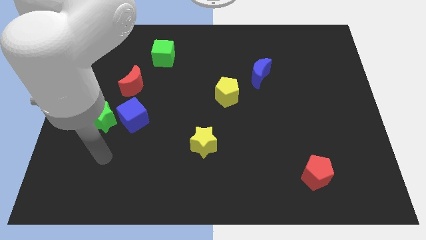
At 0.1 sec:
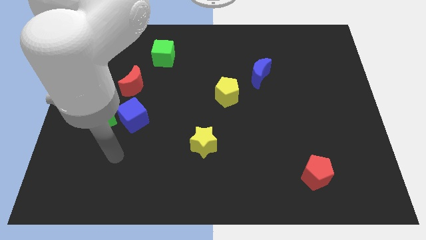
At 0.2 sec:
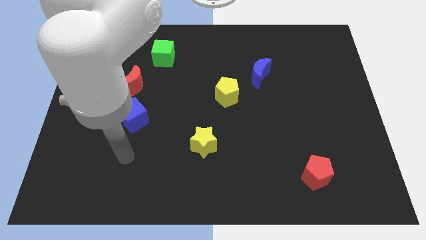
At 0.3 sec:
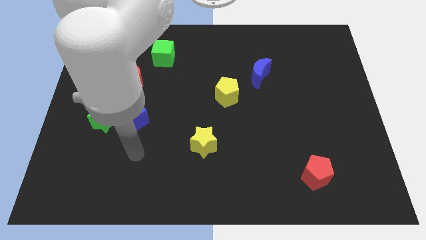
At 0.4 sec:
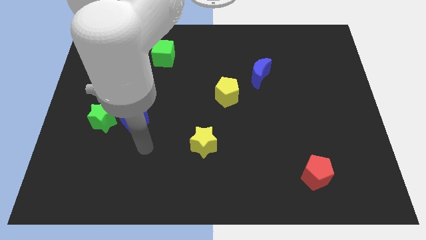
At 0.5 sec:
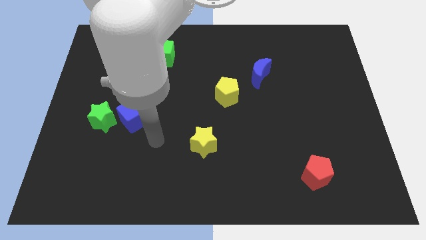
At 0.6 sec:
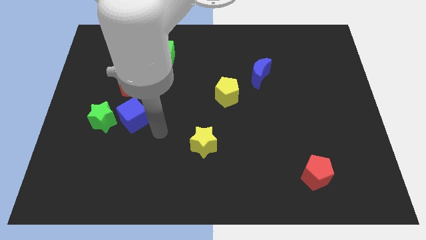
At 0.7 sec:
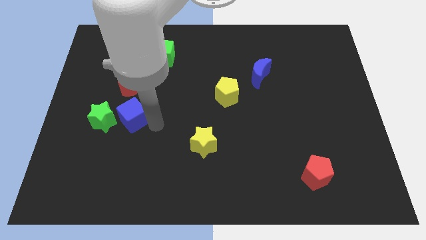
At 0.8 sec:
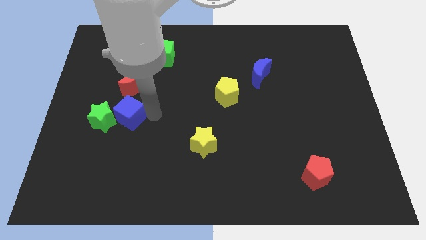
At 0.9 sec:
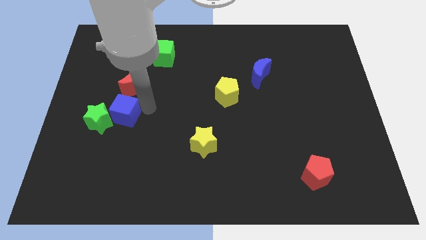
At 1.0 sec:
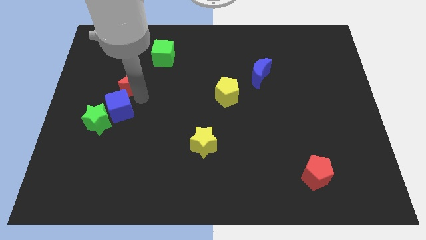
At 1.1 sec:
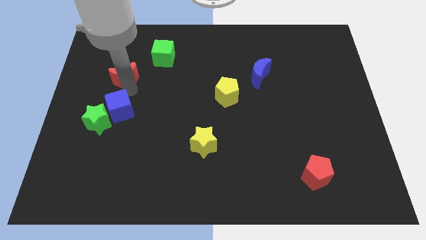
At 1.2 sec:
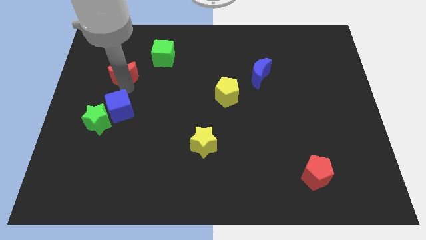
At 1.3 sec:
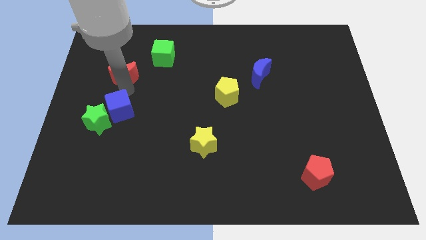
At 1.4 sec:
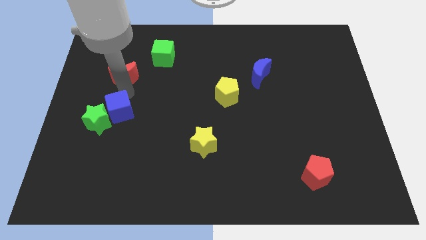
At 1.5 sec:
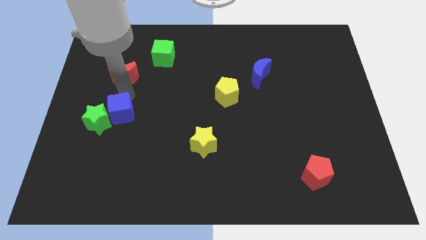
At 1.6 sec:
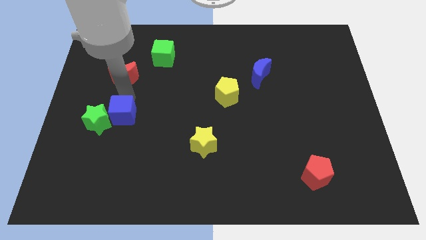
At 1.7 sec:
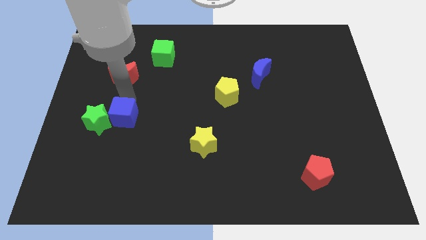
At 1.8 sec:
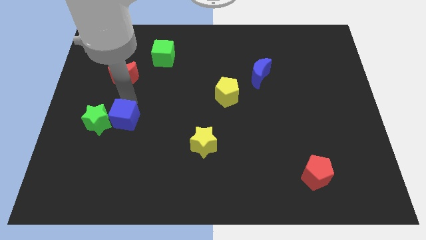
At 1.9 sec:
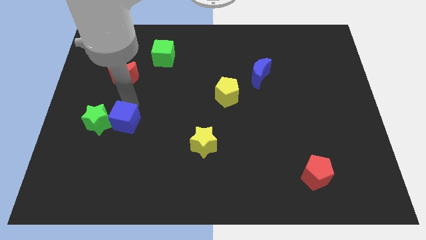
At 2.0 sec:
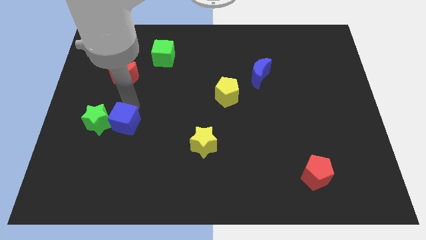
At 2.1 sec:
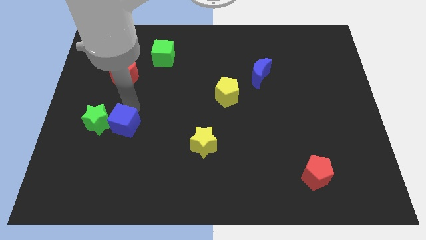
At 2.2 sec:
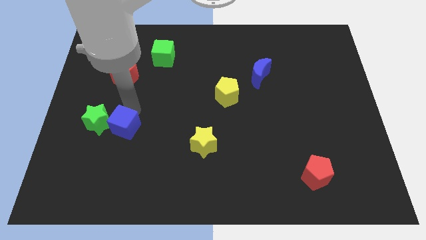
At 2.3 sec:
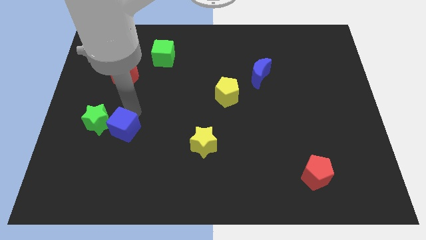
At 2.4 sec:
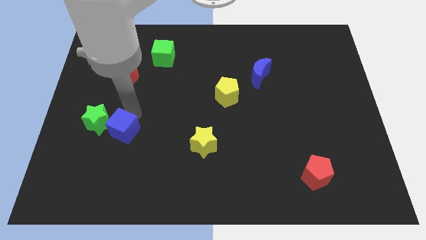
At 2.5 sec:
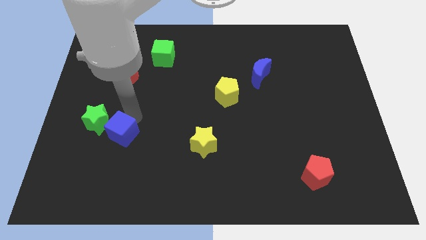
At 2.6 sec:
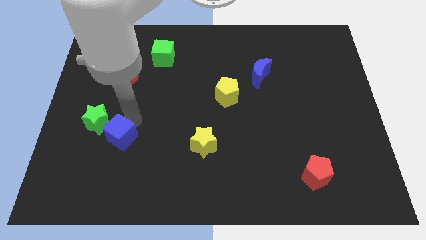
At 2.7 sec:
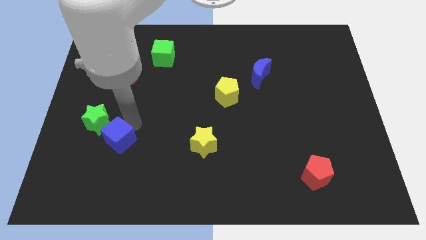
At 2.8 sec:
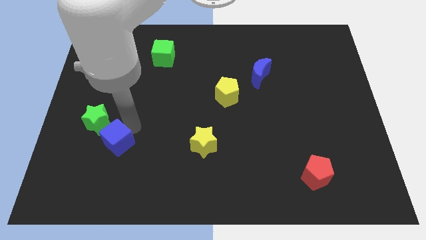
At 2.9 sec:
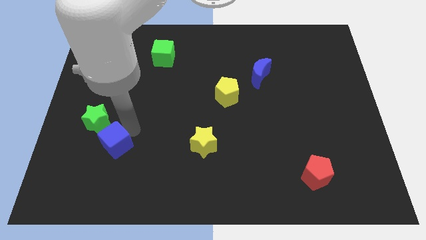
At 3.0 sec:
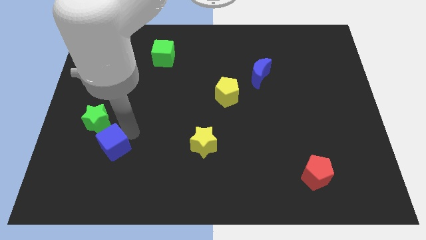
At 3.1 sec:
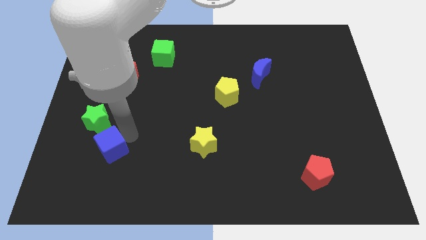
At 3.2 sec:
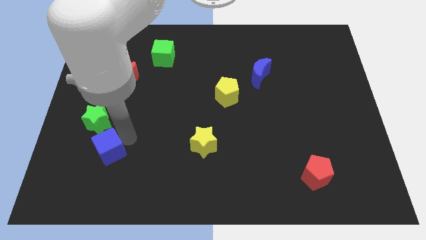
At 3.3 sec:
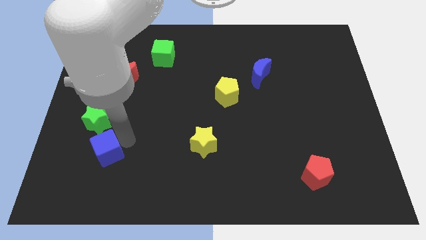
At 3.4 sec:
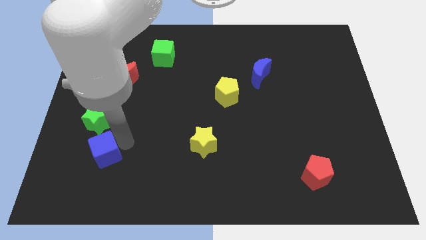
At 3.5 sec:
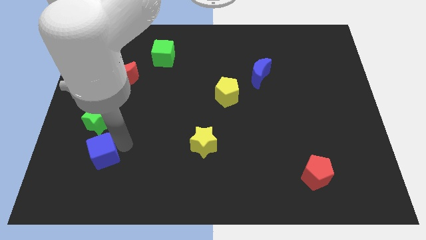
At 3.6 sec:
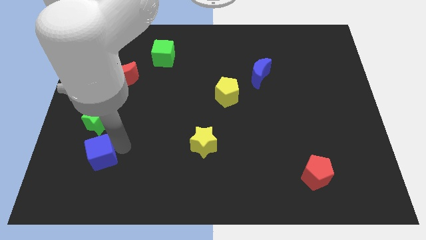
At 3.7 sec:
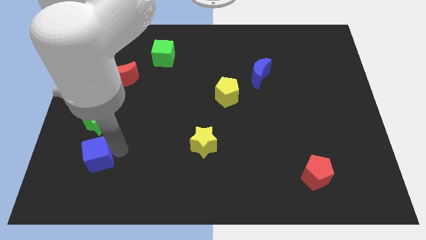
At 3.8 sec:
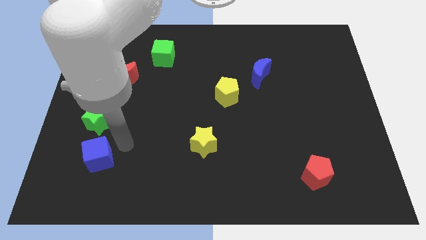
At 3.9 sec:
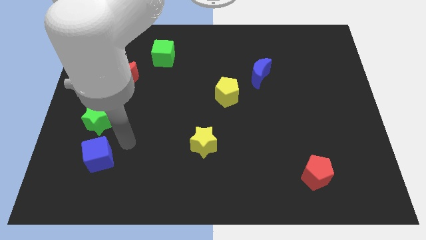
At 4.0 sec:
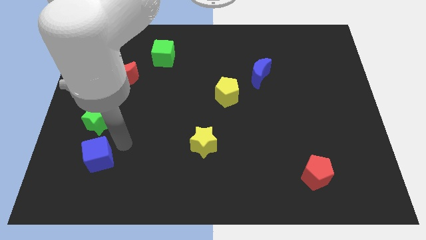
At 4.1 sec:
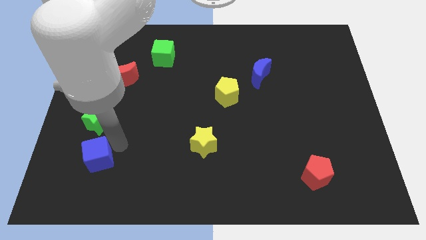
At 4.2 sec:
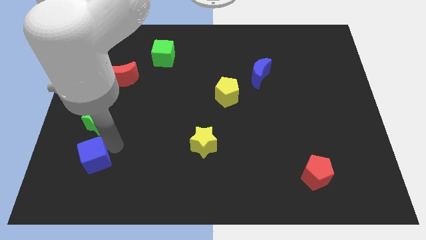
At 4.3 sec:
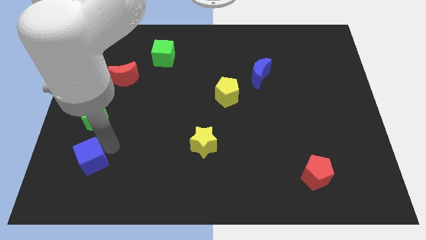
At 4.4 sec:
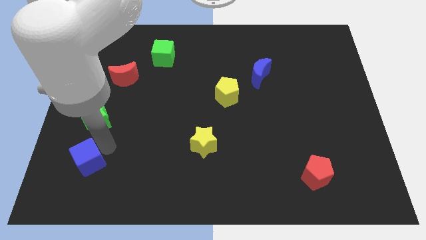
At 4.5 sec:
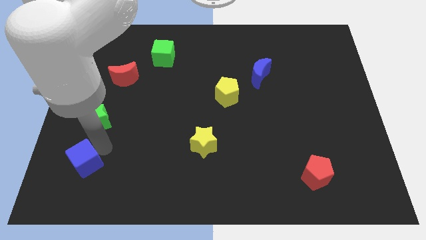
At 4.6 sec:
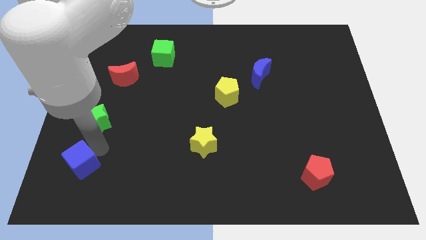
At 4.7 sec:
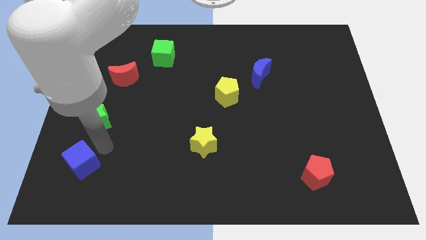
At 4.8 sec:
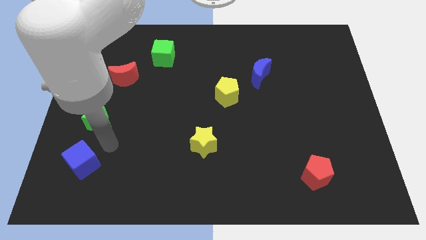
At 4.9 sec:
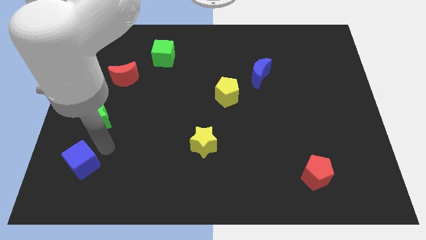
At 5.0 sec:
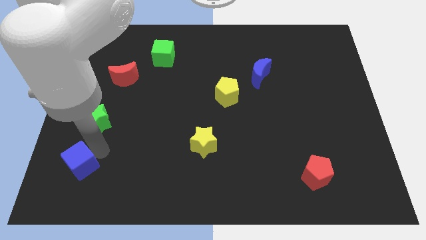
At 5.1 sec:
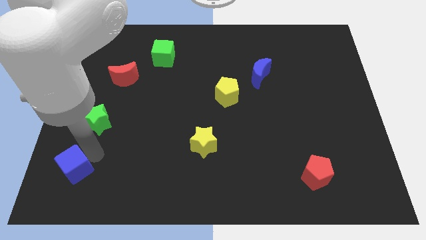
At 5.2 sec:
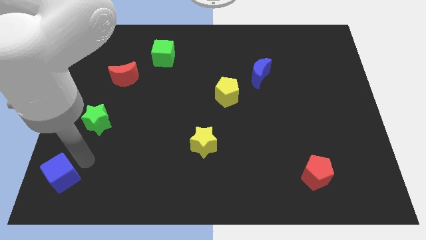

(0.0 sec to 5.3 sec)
slide the blue cube to the bottom left of the board

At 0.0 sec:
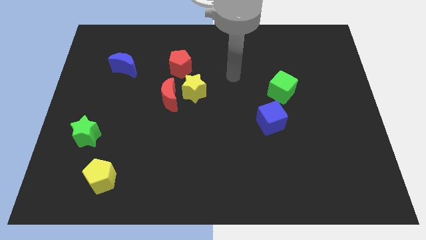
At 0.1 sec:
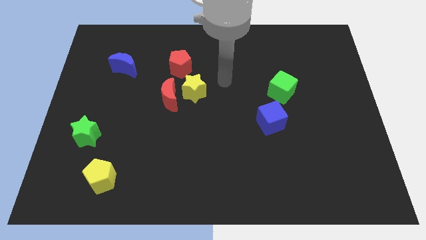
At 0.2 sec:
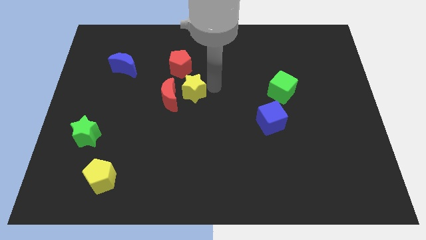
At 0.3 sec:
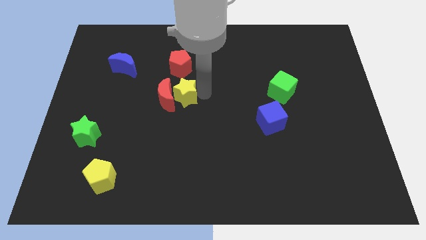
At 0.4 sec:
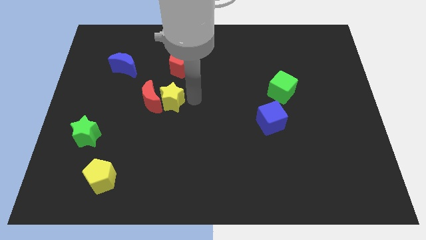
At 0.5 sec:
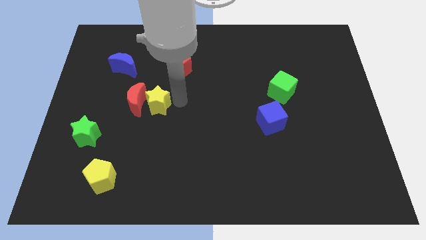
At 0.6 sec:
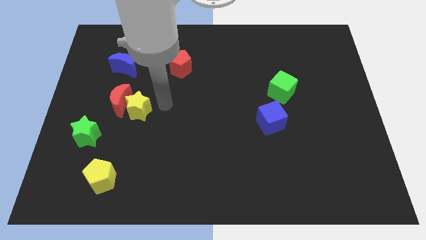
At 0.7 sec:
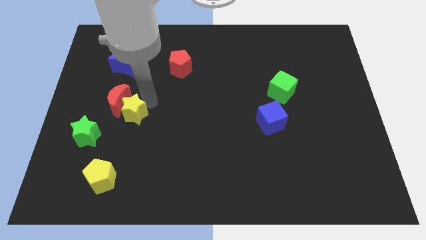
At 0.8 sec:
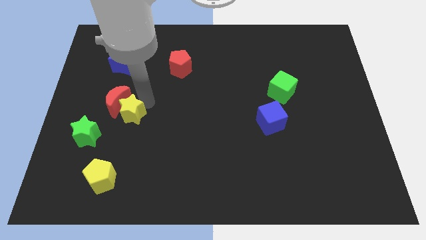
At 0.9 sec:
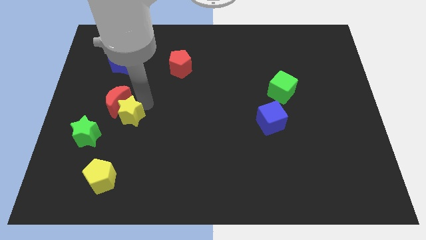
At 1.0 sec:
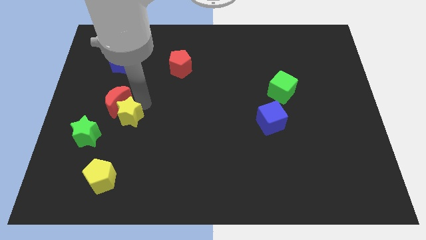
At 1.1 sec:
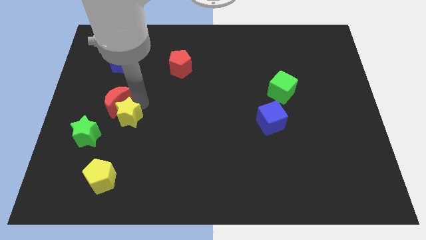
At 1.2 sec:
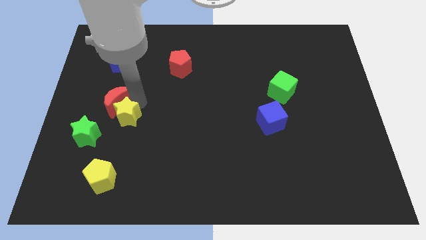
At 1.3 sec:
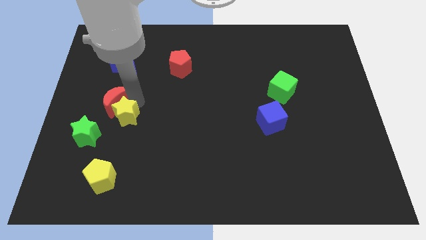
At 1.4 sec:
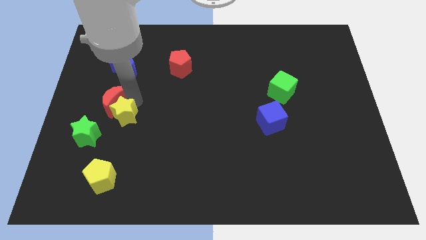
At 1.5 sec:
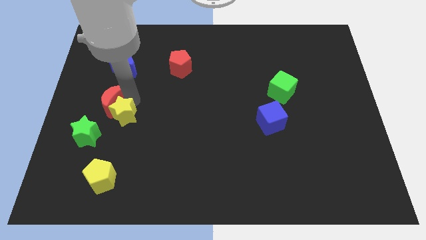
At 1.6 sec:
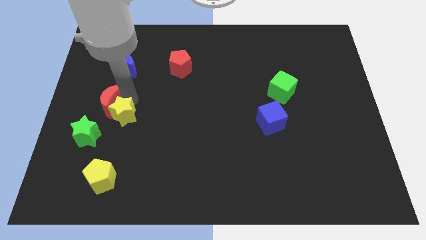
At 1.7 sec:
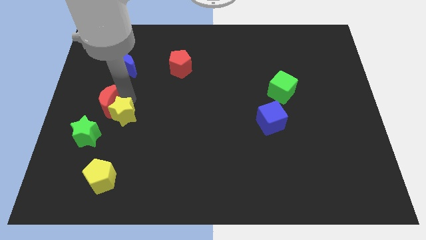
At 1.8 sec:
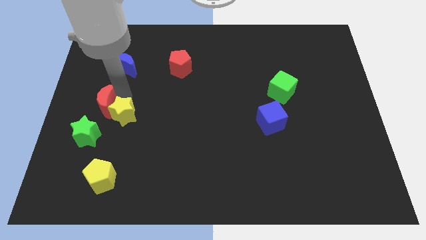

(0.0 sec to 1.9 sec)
slide the red moon to the center left
